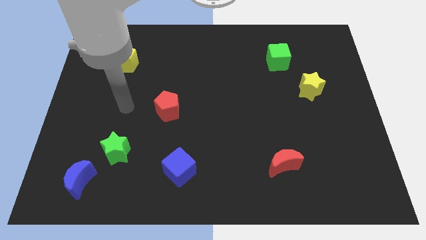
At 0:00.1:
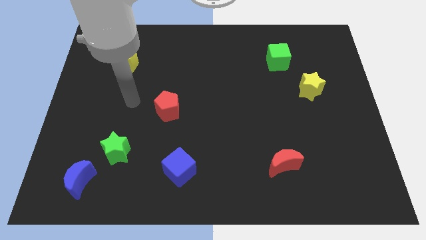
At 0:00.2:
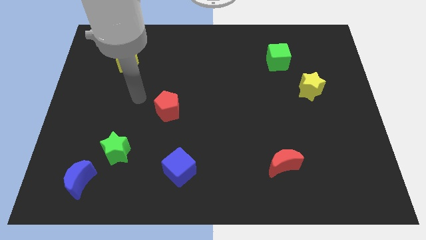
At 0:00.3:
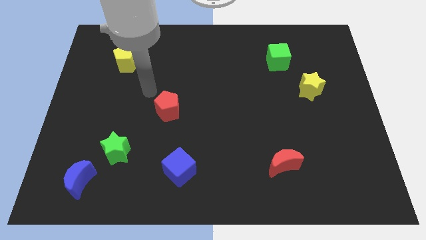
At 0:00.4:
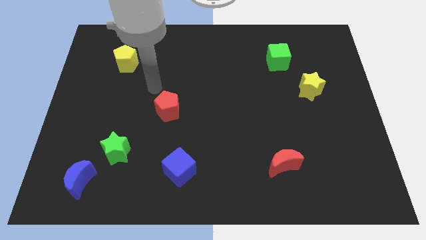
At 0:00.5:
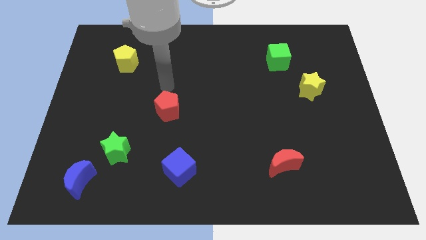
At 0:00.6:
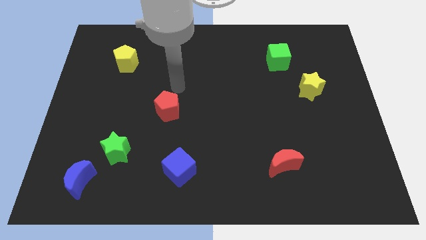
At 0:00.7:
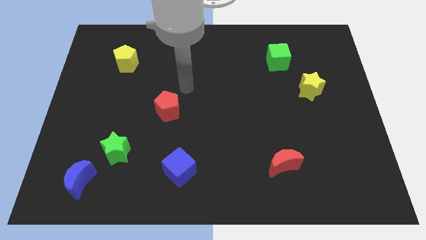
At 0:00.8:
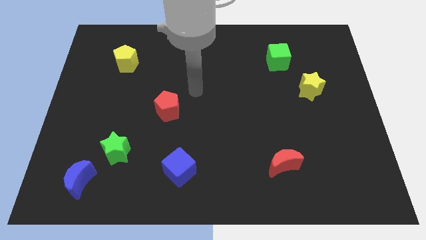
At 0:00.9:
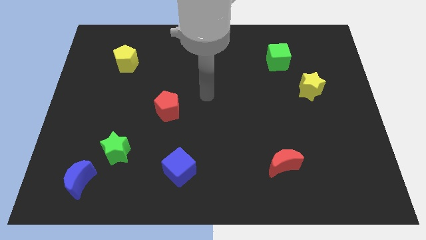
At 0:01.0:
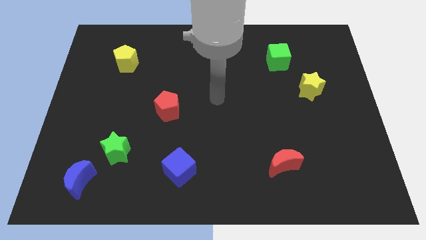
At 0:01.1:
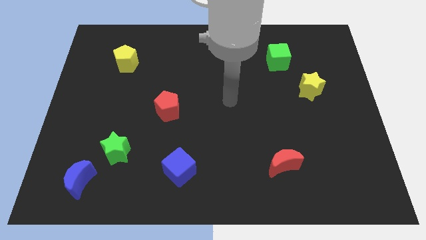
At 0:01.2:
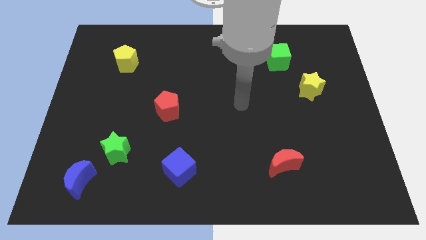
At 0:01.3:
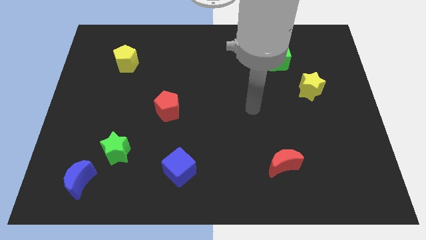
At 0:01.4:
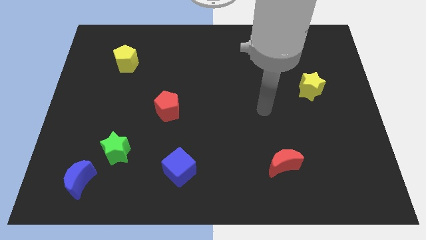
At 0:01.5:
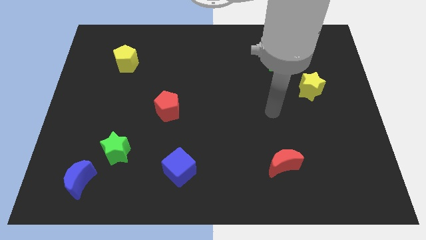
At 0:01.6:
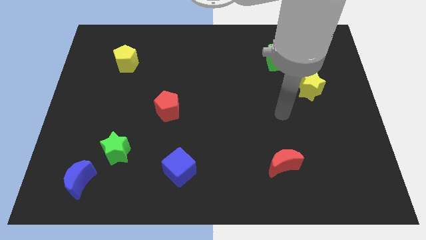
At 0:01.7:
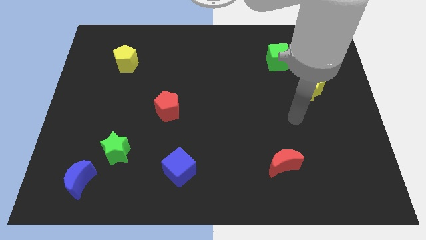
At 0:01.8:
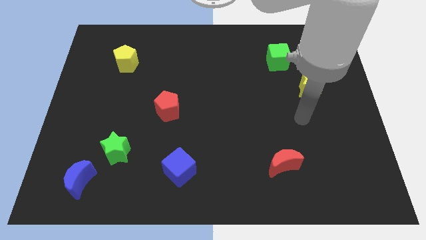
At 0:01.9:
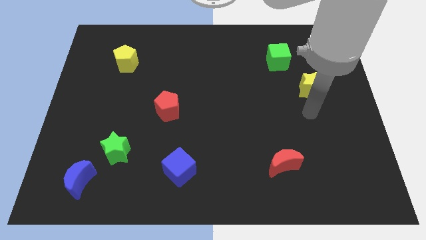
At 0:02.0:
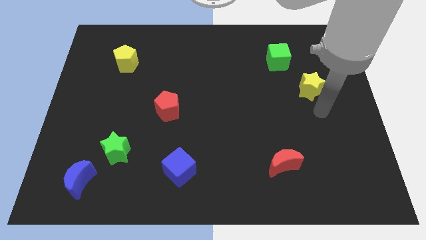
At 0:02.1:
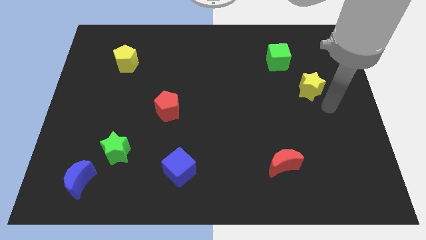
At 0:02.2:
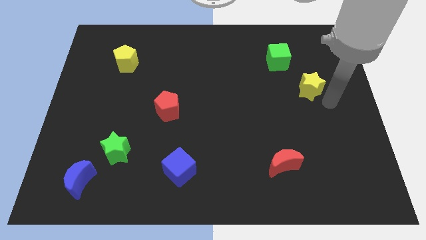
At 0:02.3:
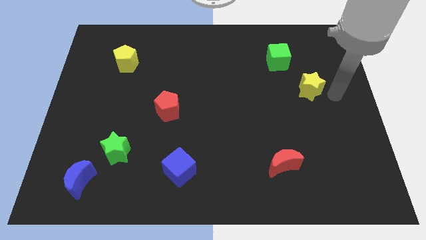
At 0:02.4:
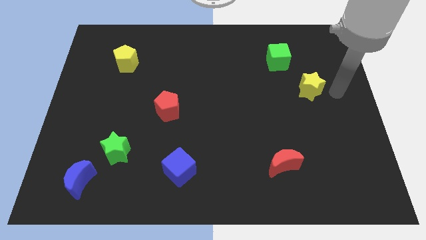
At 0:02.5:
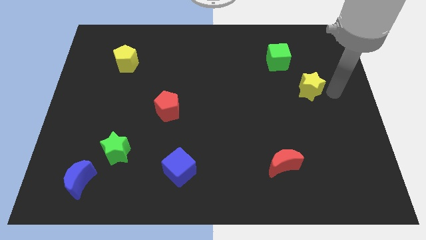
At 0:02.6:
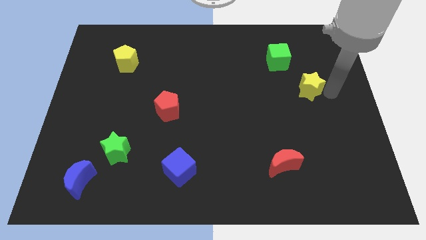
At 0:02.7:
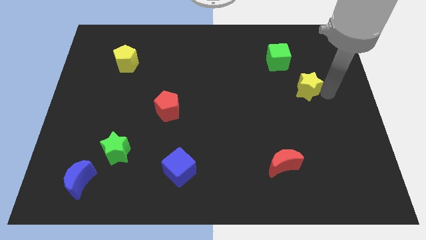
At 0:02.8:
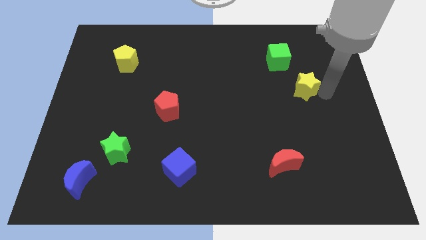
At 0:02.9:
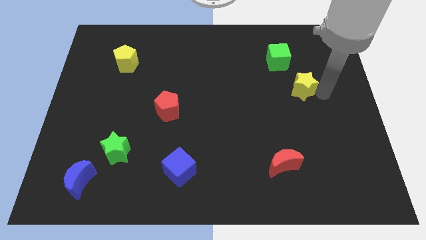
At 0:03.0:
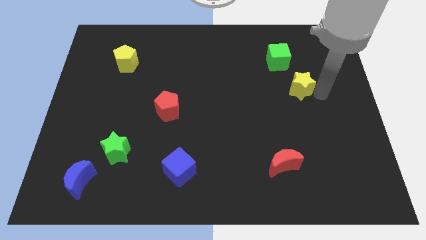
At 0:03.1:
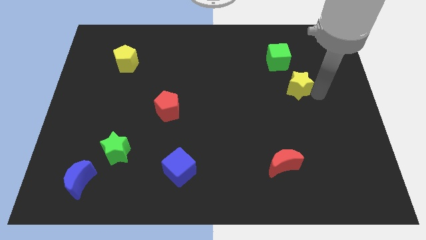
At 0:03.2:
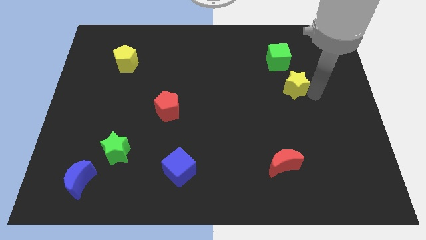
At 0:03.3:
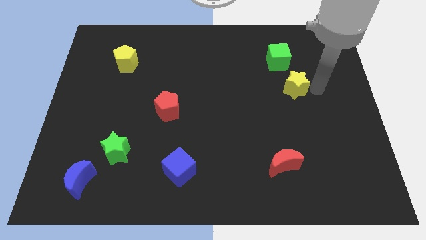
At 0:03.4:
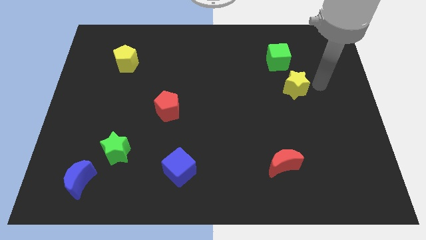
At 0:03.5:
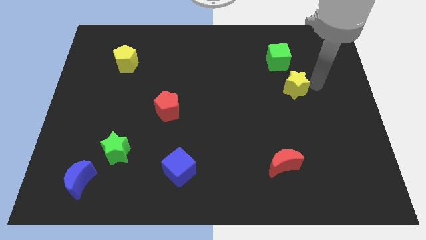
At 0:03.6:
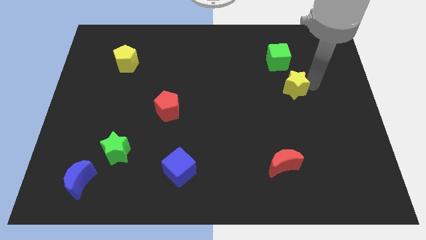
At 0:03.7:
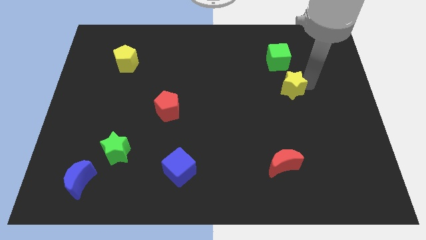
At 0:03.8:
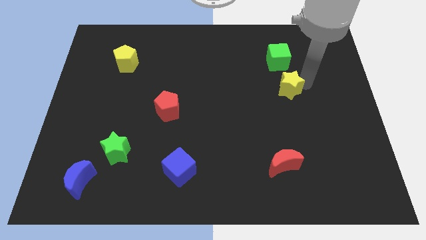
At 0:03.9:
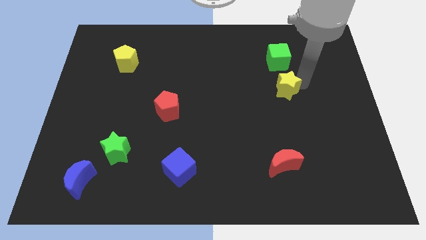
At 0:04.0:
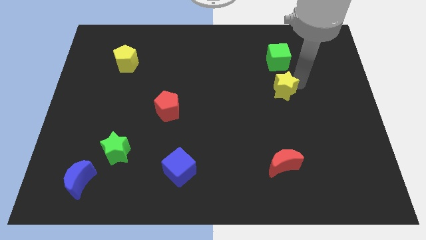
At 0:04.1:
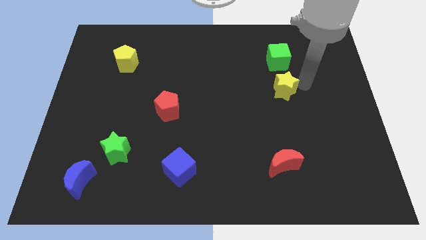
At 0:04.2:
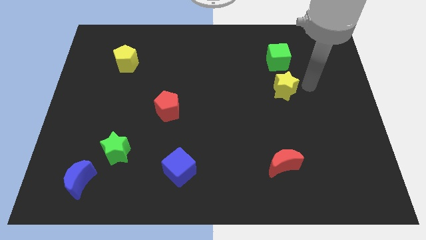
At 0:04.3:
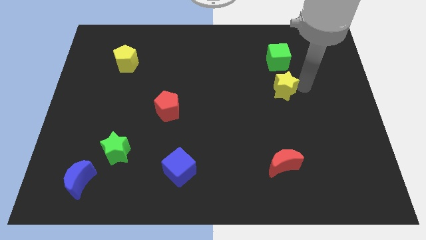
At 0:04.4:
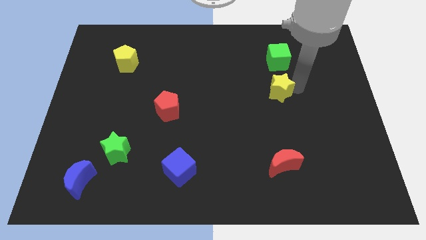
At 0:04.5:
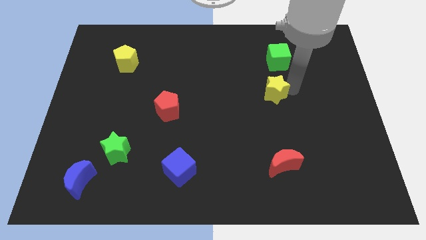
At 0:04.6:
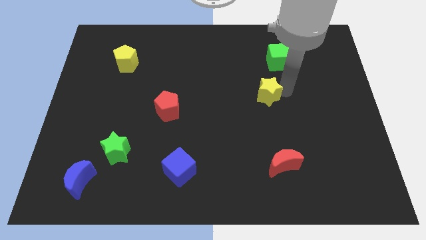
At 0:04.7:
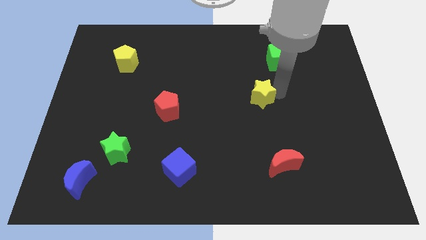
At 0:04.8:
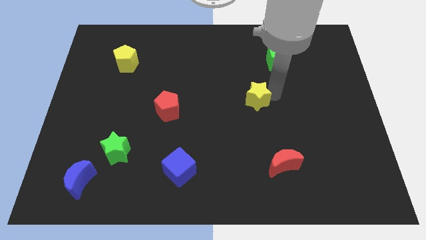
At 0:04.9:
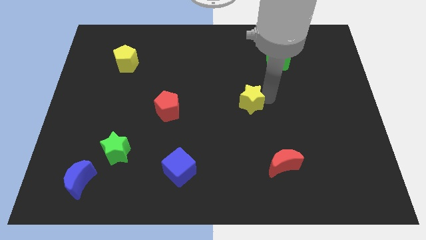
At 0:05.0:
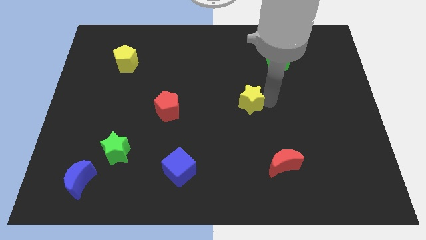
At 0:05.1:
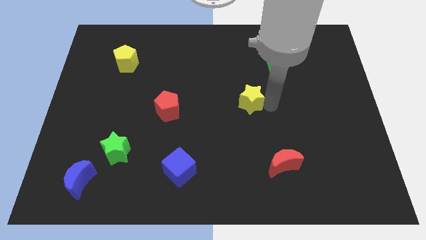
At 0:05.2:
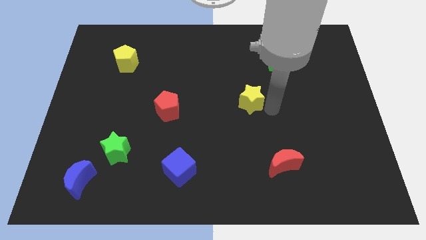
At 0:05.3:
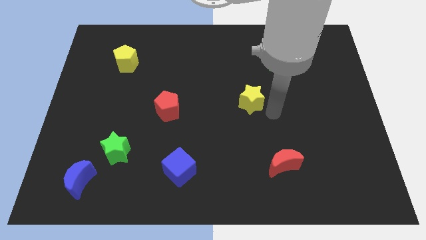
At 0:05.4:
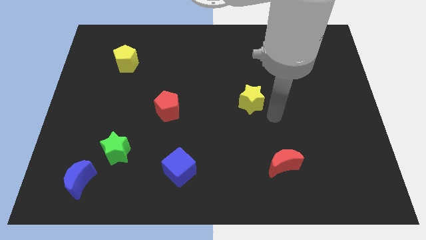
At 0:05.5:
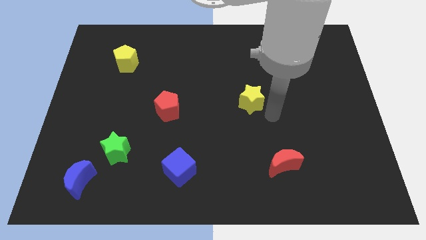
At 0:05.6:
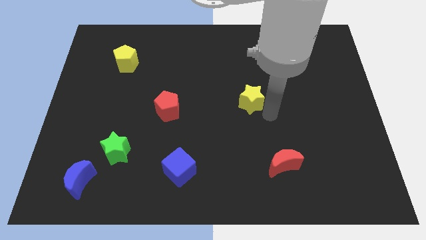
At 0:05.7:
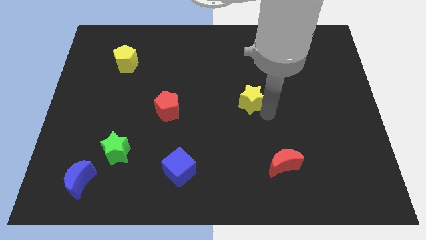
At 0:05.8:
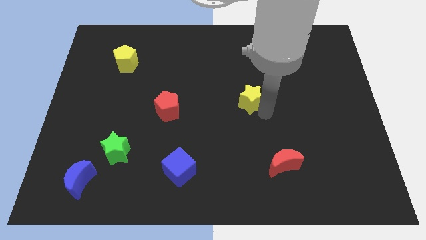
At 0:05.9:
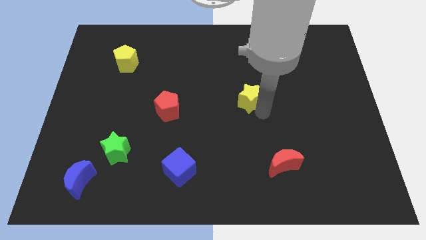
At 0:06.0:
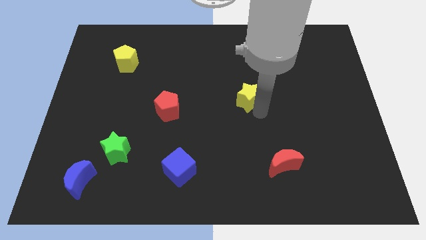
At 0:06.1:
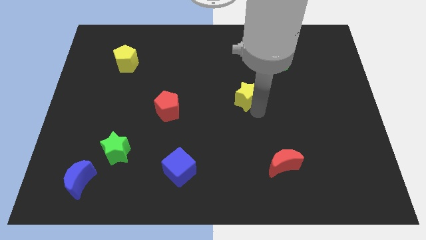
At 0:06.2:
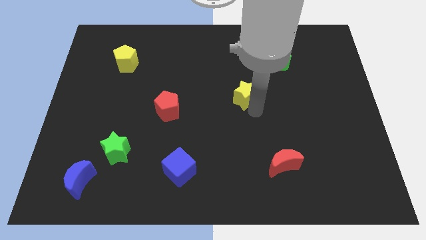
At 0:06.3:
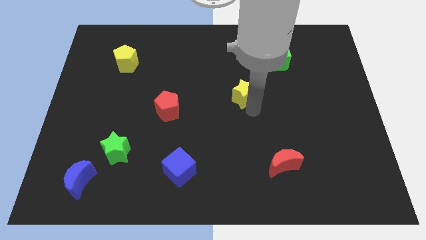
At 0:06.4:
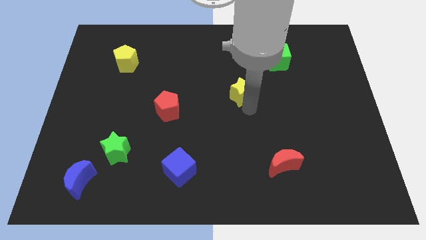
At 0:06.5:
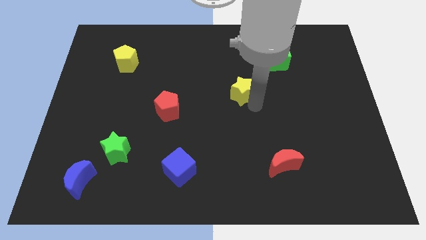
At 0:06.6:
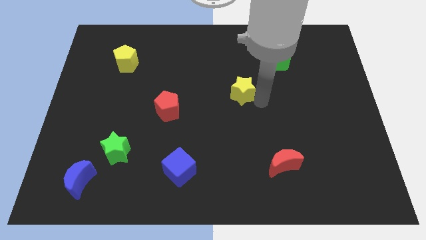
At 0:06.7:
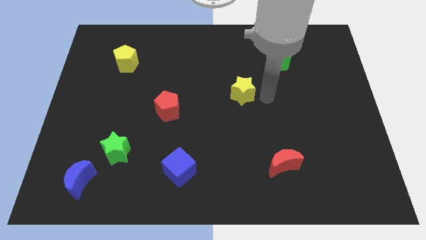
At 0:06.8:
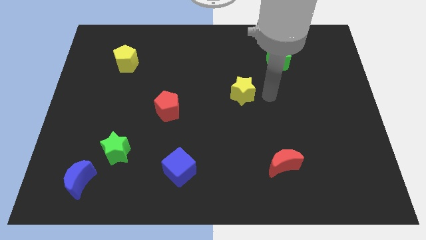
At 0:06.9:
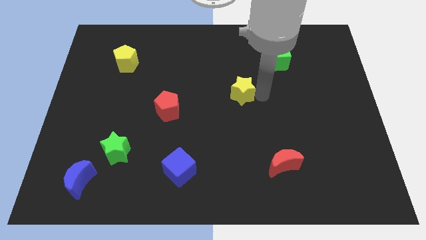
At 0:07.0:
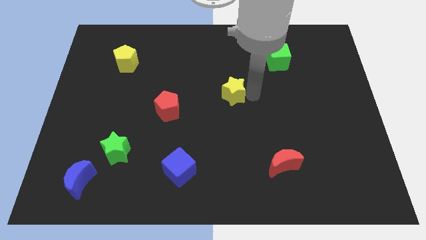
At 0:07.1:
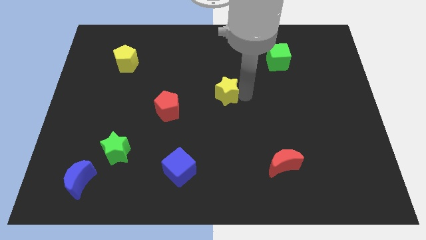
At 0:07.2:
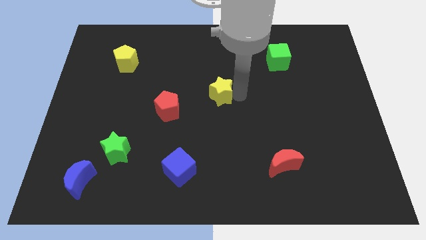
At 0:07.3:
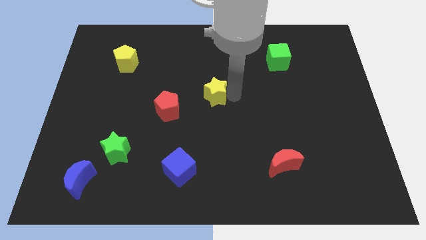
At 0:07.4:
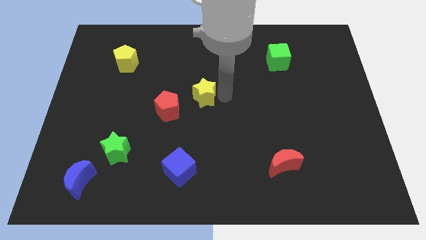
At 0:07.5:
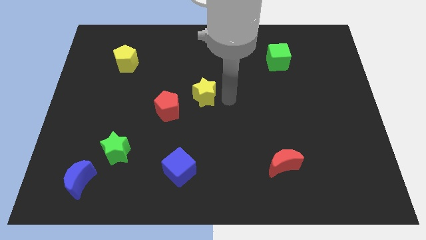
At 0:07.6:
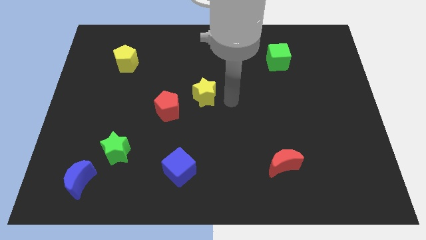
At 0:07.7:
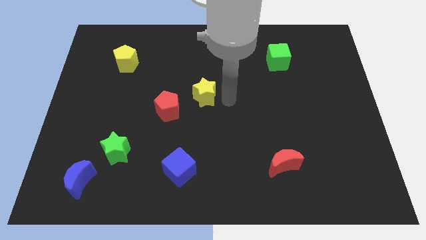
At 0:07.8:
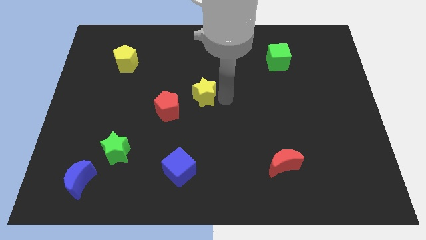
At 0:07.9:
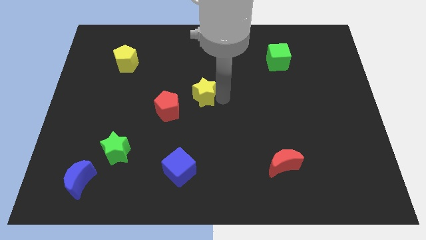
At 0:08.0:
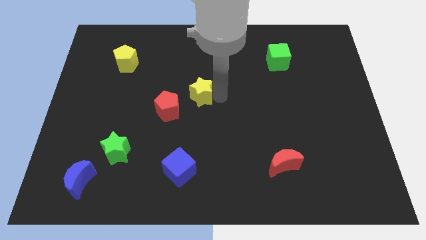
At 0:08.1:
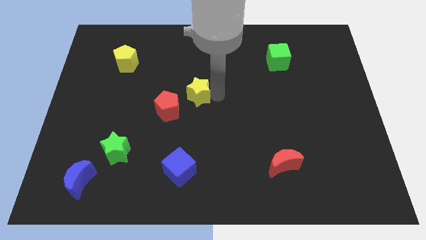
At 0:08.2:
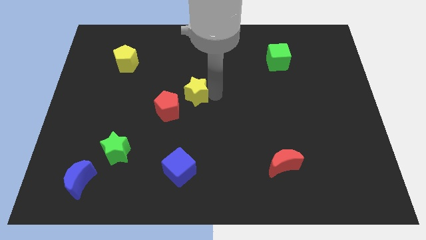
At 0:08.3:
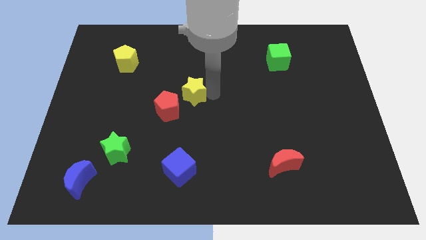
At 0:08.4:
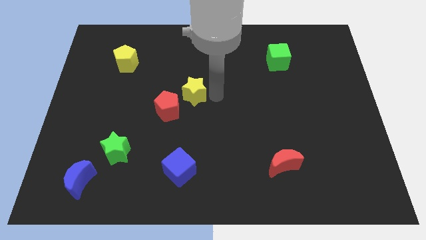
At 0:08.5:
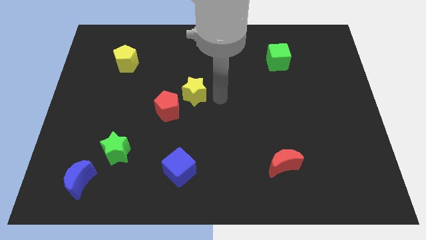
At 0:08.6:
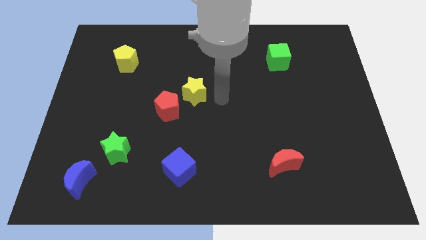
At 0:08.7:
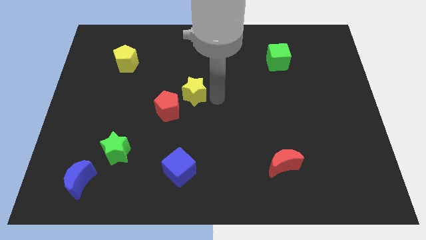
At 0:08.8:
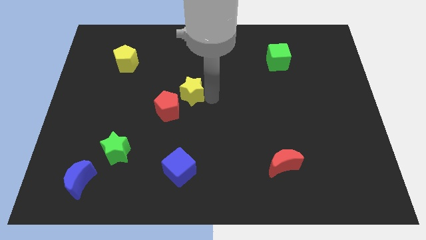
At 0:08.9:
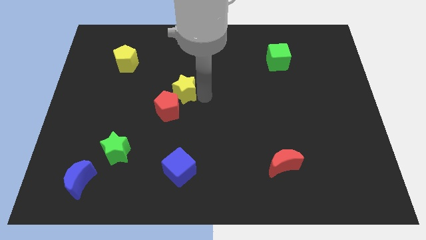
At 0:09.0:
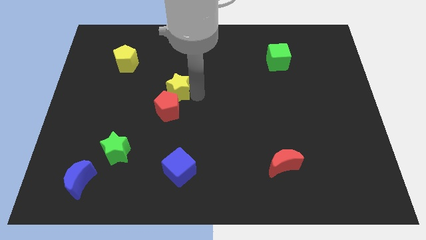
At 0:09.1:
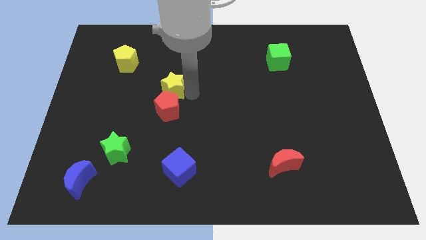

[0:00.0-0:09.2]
put the yellow star diagonally up and to the left of the red pentagon
